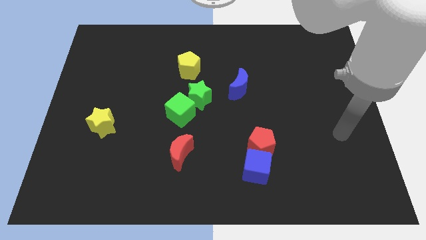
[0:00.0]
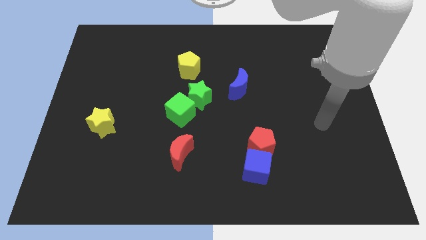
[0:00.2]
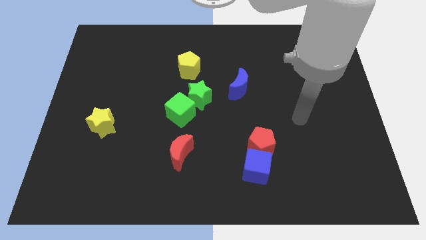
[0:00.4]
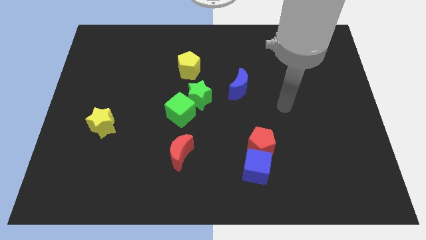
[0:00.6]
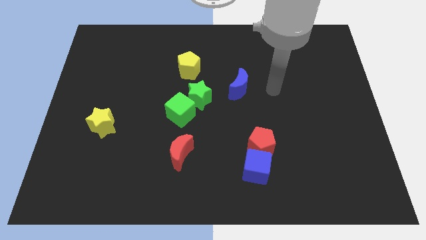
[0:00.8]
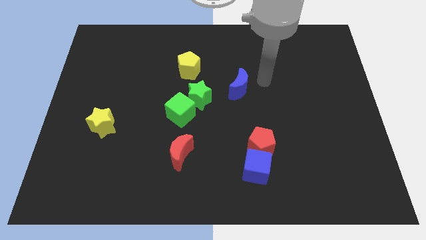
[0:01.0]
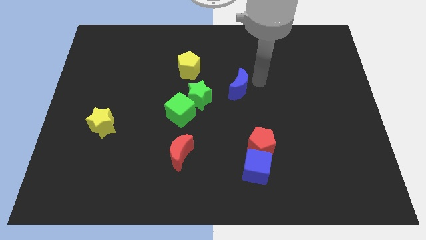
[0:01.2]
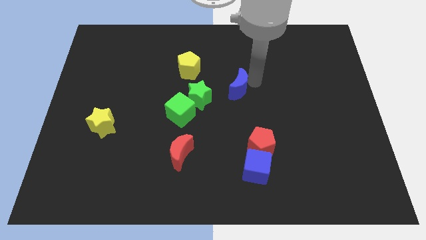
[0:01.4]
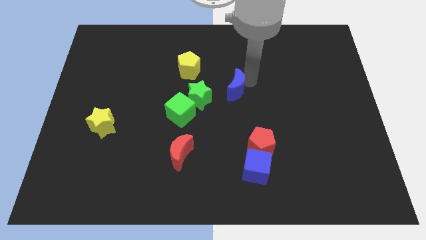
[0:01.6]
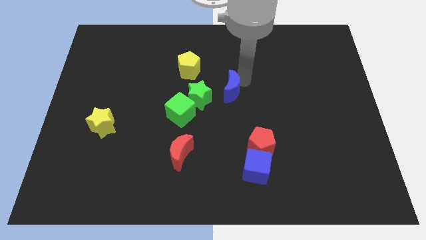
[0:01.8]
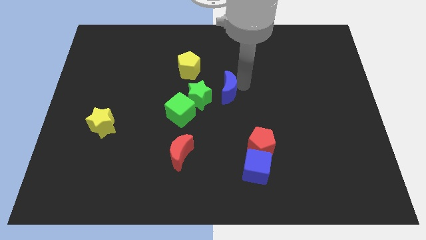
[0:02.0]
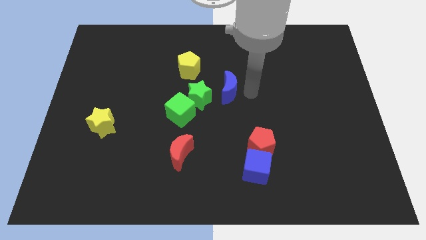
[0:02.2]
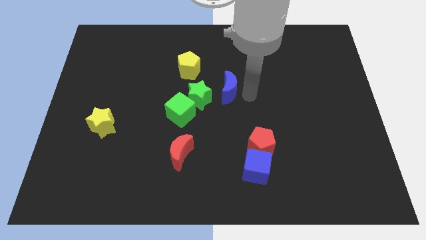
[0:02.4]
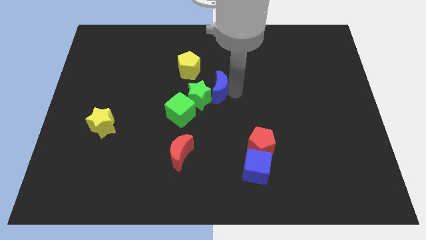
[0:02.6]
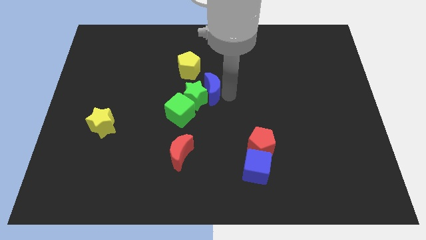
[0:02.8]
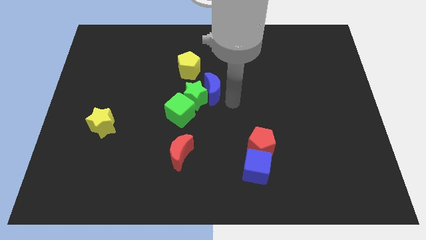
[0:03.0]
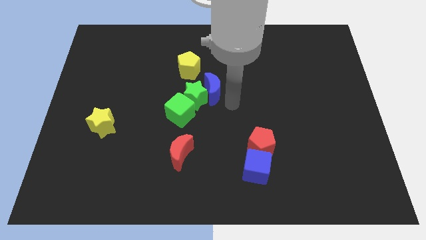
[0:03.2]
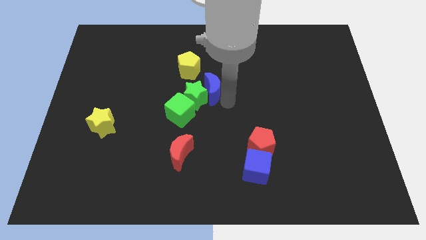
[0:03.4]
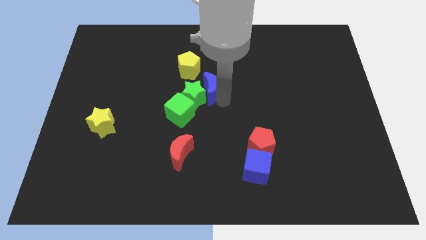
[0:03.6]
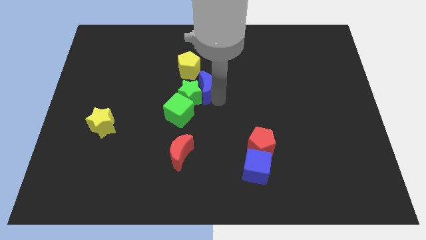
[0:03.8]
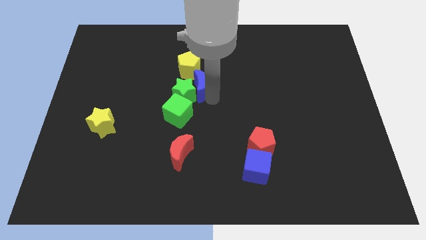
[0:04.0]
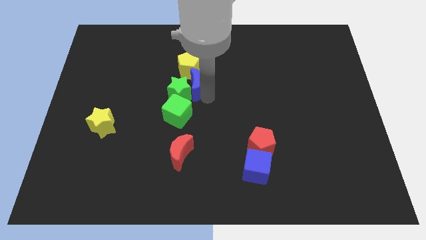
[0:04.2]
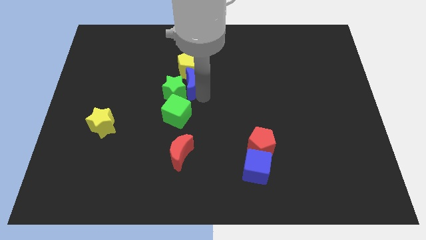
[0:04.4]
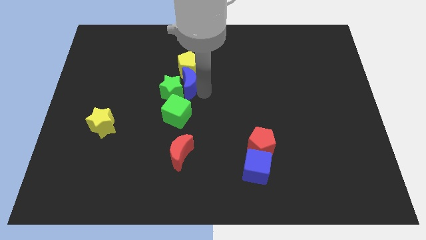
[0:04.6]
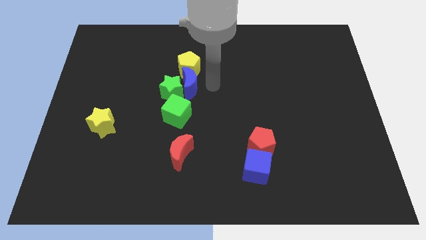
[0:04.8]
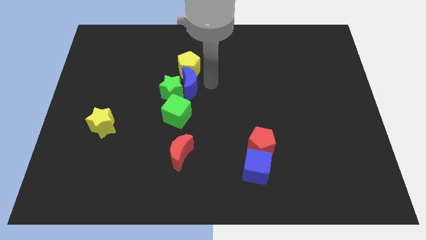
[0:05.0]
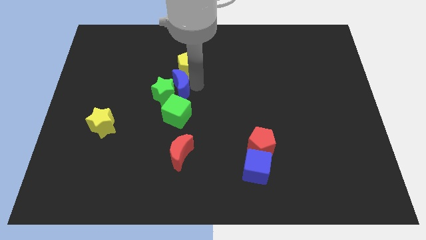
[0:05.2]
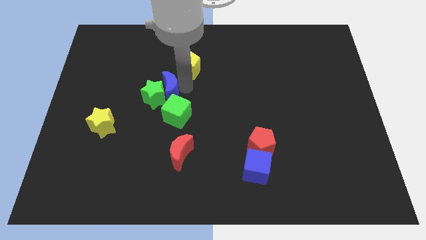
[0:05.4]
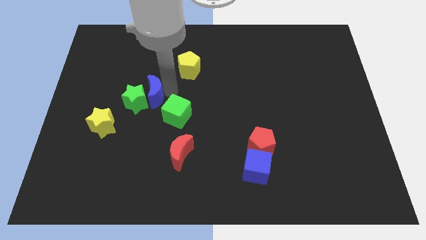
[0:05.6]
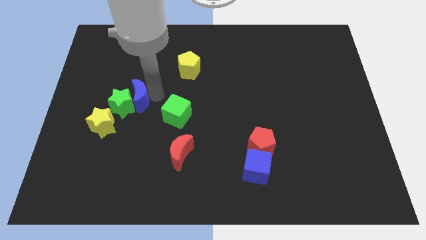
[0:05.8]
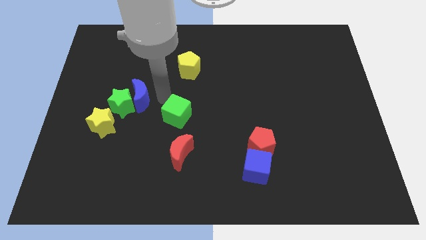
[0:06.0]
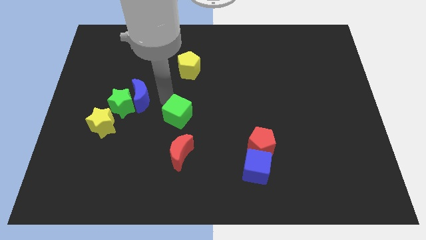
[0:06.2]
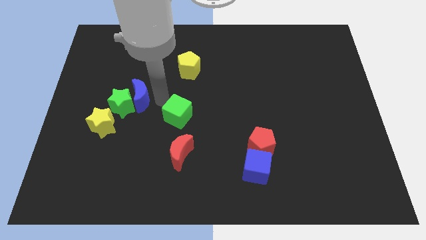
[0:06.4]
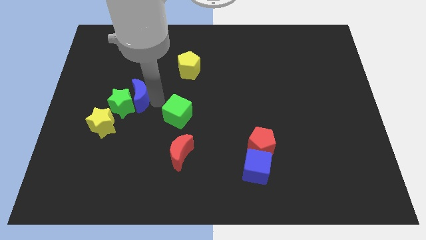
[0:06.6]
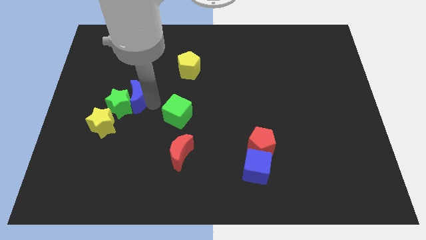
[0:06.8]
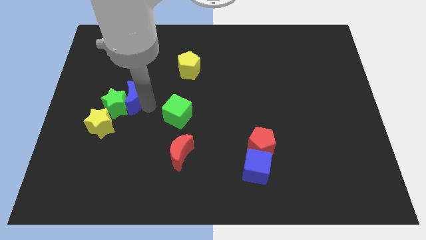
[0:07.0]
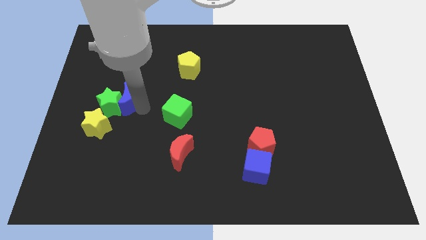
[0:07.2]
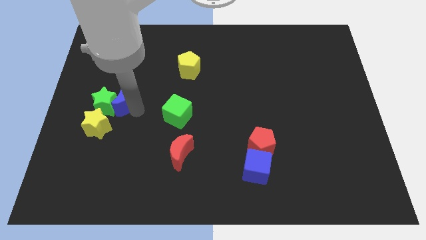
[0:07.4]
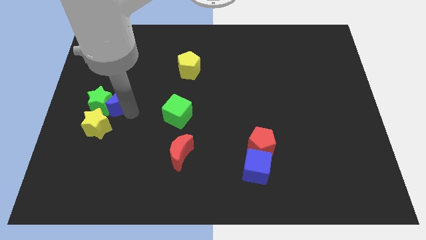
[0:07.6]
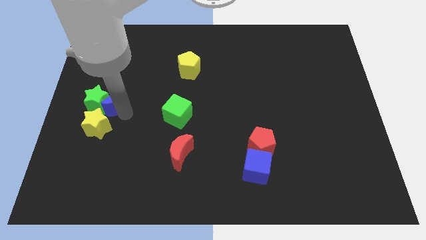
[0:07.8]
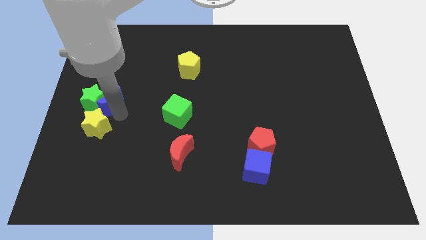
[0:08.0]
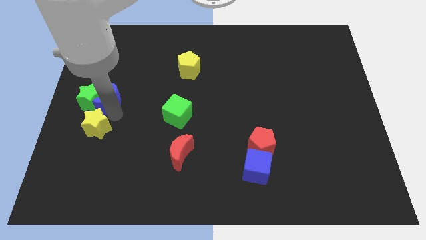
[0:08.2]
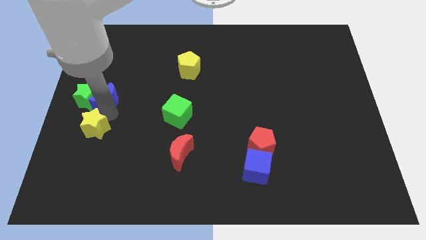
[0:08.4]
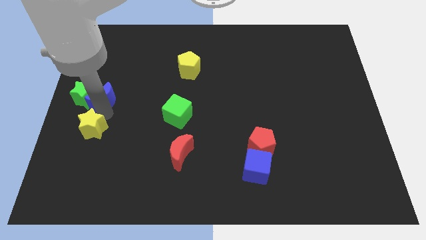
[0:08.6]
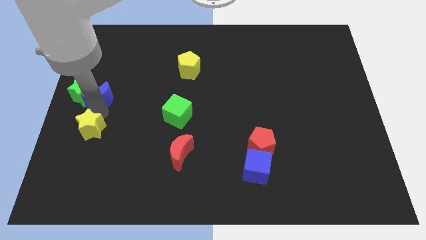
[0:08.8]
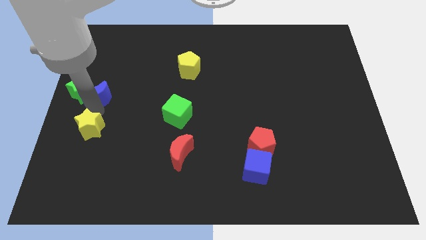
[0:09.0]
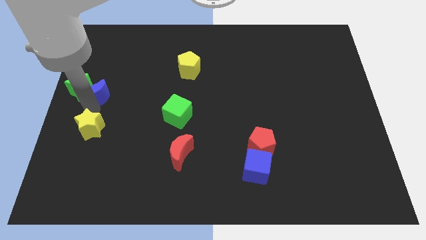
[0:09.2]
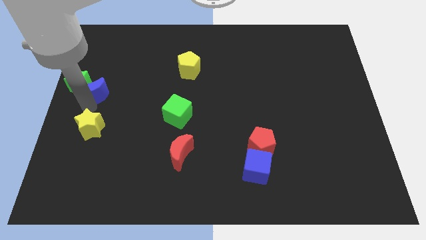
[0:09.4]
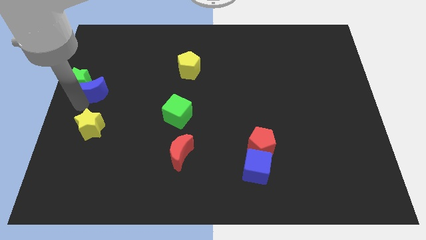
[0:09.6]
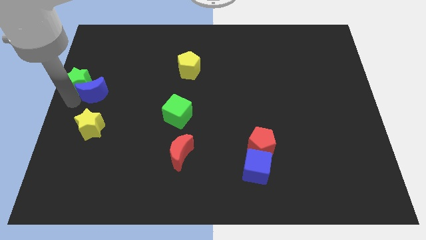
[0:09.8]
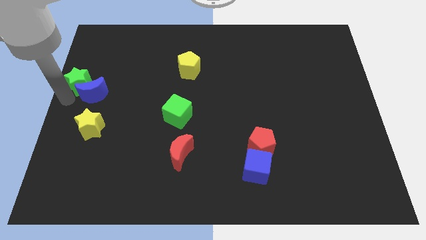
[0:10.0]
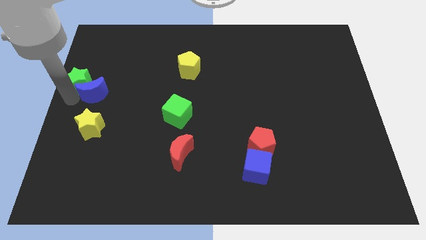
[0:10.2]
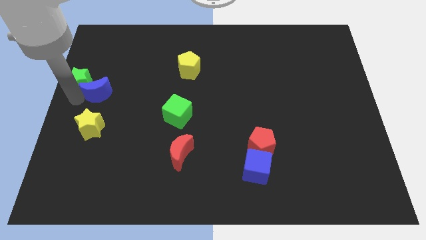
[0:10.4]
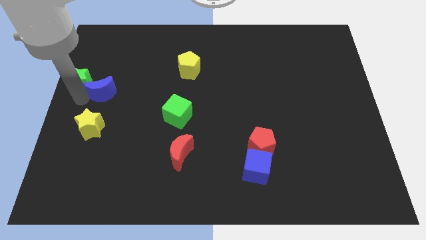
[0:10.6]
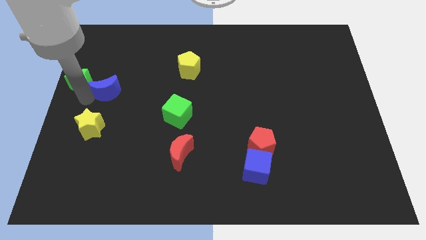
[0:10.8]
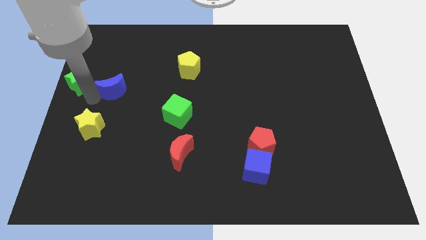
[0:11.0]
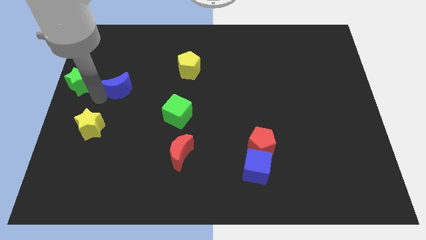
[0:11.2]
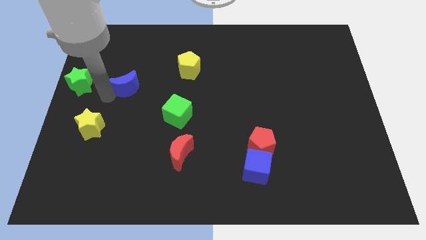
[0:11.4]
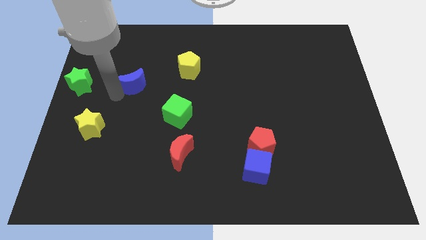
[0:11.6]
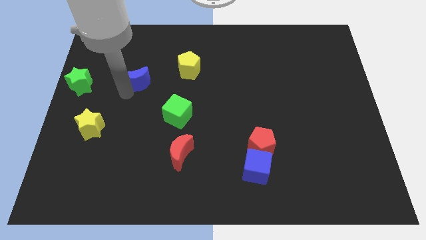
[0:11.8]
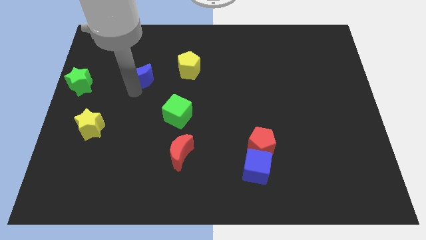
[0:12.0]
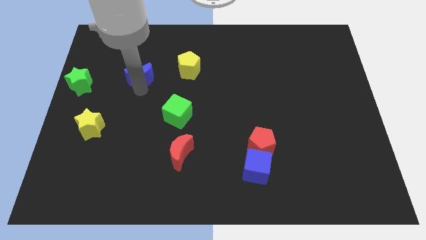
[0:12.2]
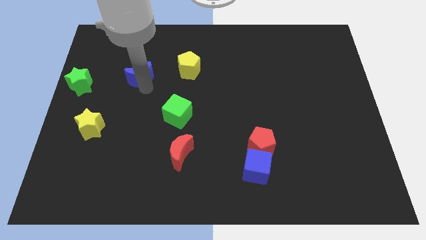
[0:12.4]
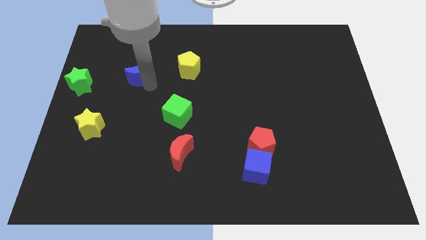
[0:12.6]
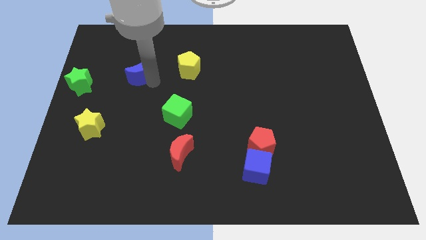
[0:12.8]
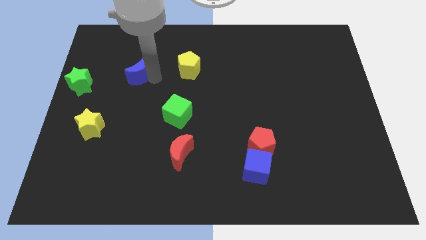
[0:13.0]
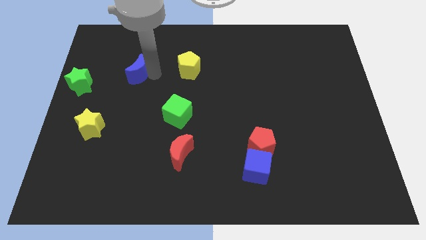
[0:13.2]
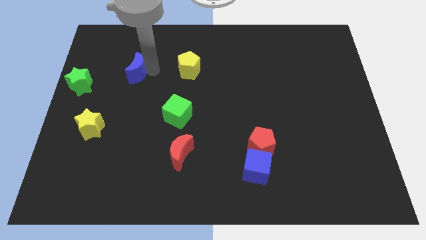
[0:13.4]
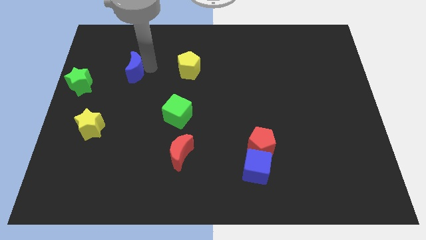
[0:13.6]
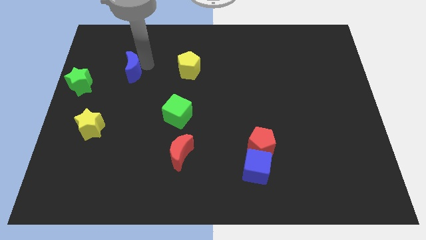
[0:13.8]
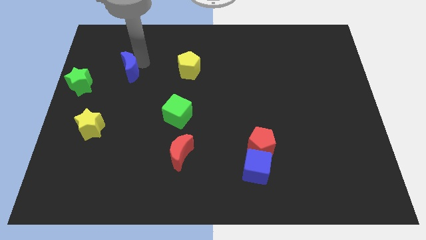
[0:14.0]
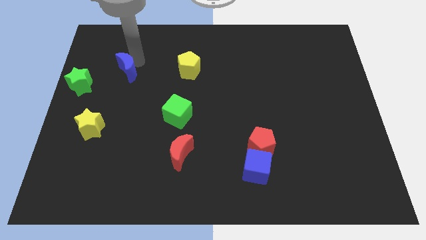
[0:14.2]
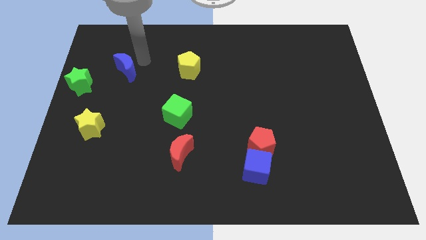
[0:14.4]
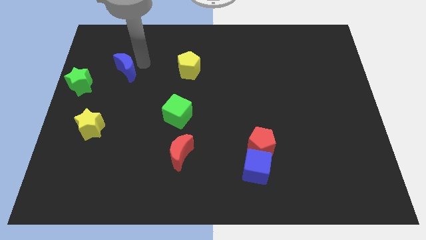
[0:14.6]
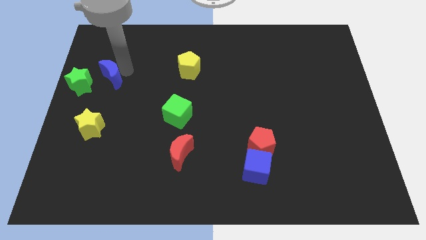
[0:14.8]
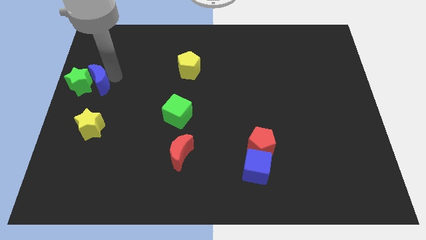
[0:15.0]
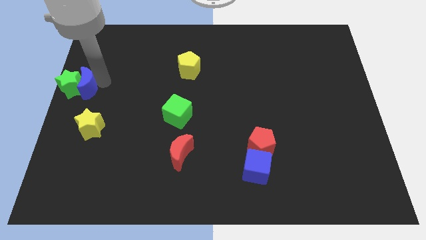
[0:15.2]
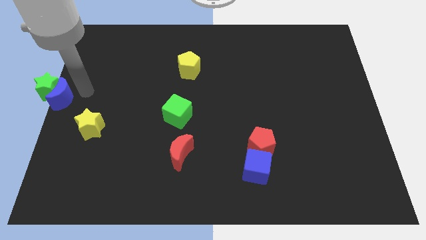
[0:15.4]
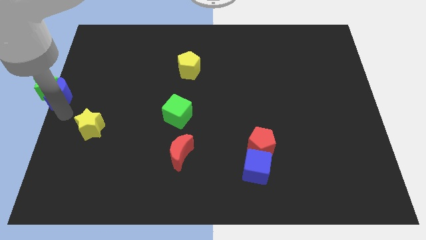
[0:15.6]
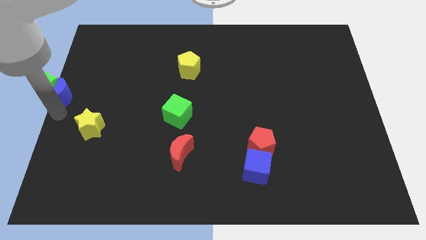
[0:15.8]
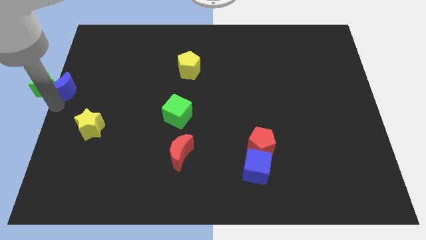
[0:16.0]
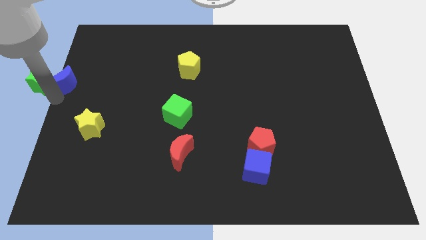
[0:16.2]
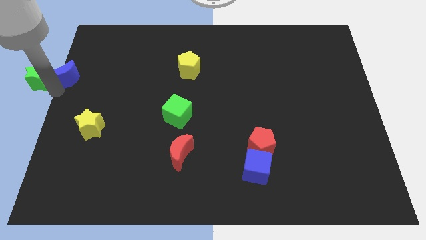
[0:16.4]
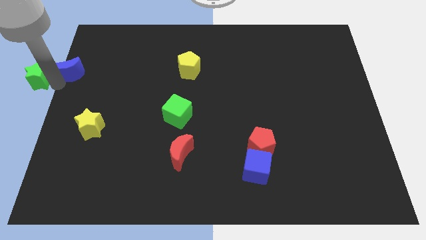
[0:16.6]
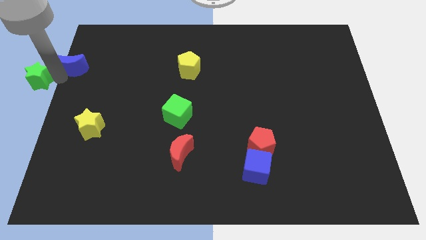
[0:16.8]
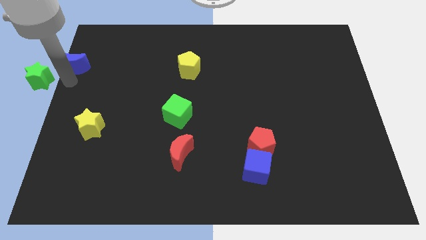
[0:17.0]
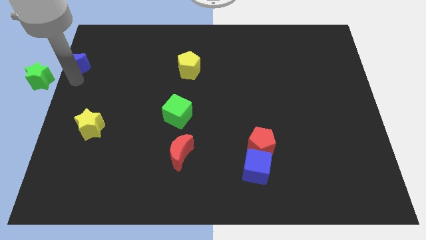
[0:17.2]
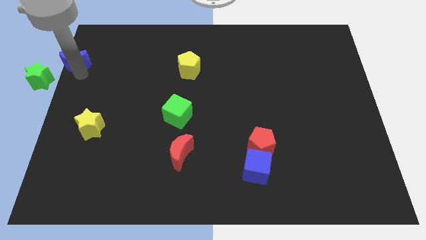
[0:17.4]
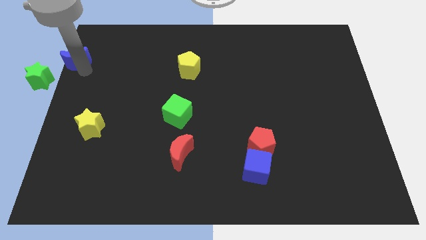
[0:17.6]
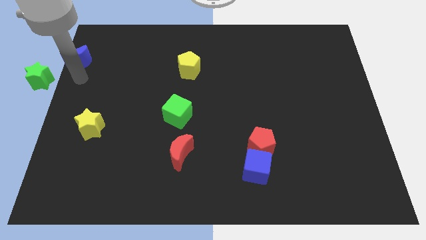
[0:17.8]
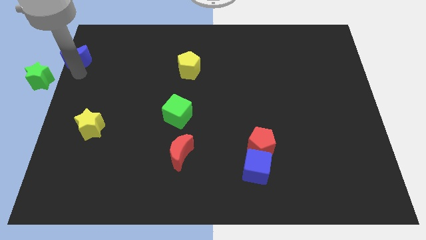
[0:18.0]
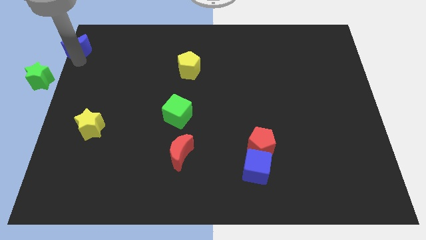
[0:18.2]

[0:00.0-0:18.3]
move the blue moon to the top left of the board
